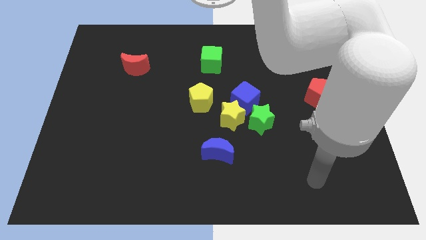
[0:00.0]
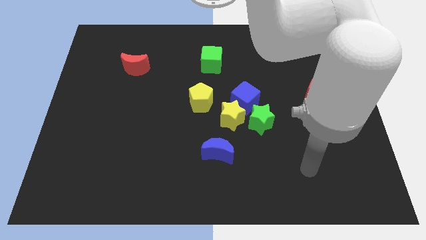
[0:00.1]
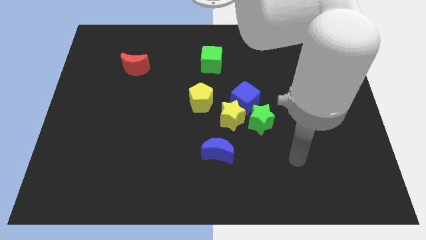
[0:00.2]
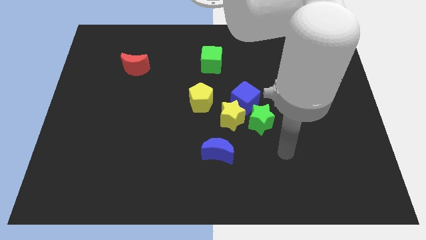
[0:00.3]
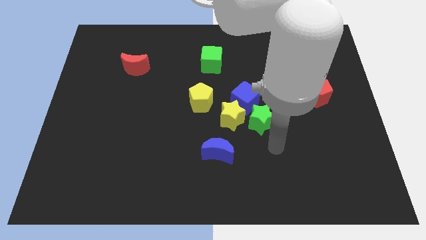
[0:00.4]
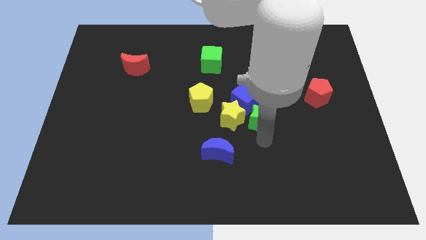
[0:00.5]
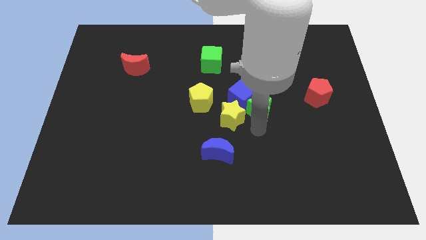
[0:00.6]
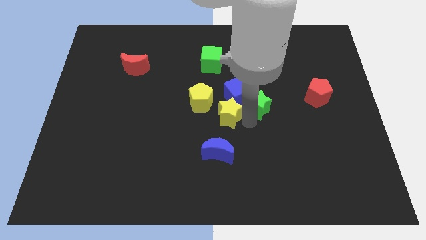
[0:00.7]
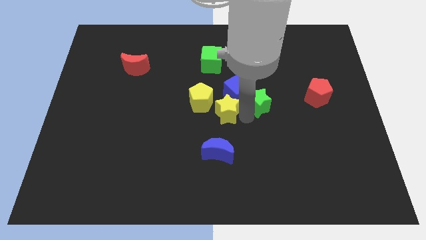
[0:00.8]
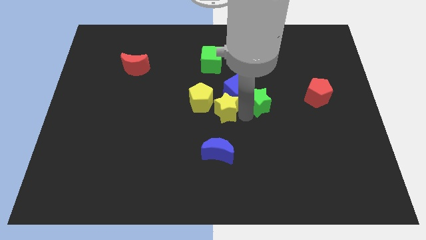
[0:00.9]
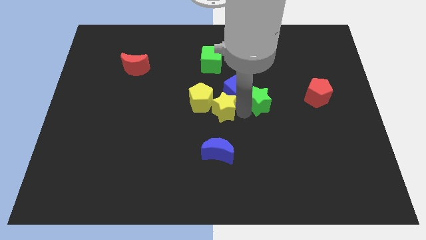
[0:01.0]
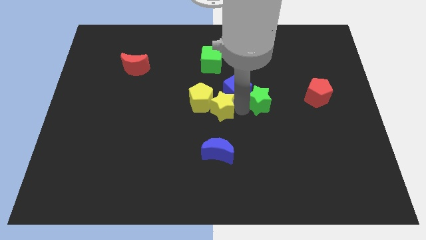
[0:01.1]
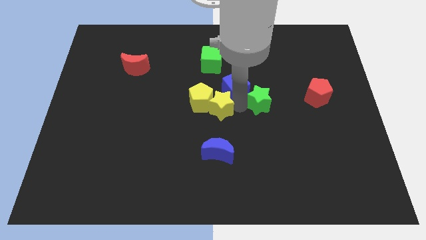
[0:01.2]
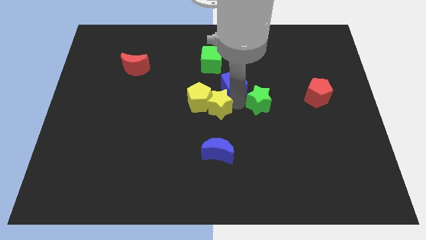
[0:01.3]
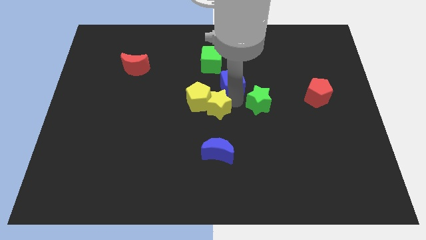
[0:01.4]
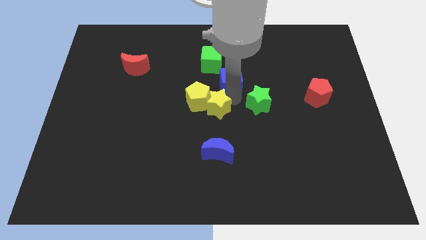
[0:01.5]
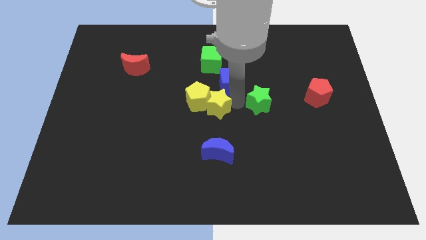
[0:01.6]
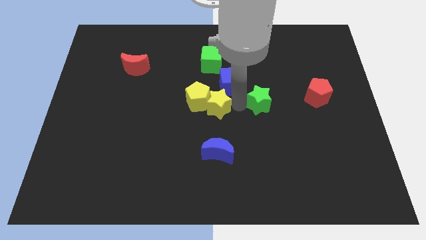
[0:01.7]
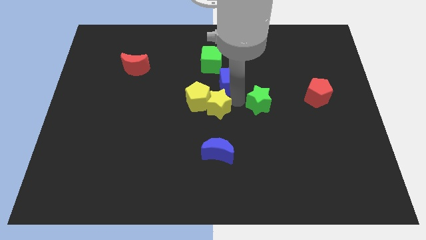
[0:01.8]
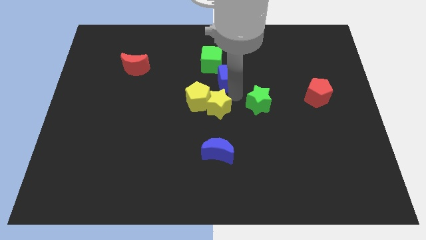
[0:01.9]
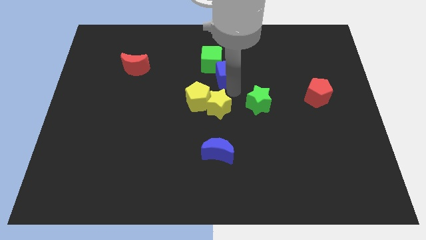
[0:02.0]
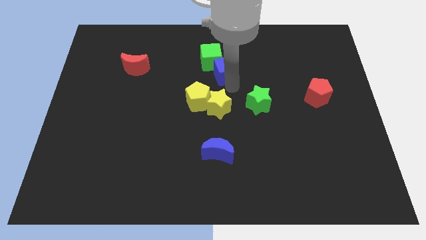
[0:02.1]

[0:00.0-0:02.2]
separate the blue cube from the yellow star and green star

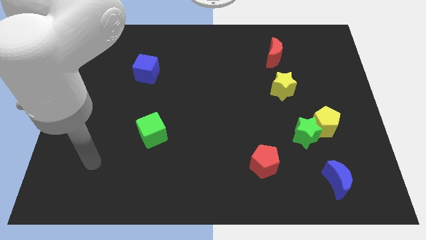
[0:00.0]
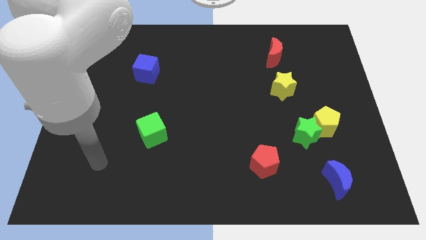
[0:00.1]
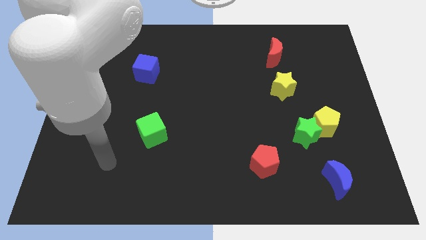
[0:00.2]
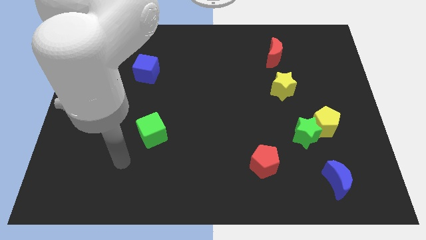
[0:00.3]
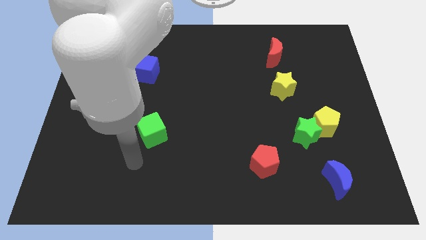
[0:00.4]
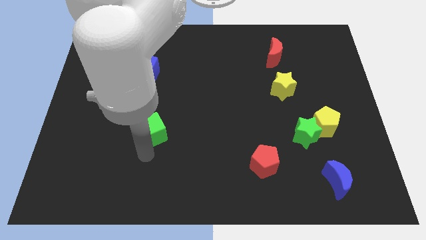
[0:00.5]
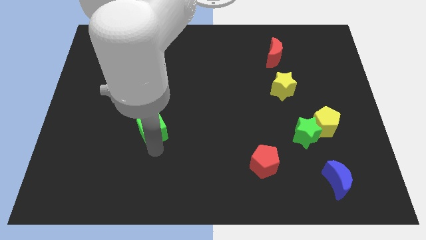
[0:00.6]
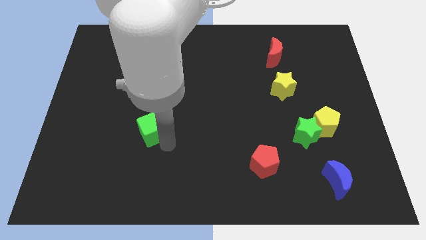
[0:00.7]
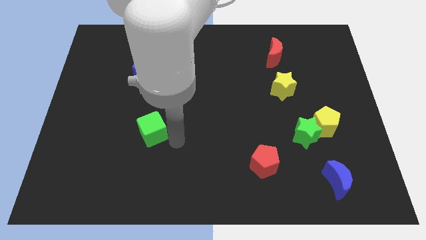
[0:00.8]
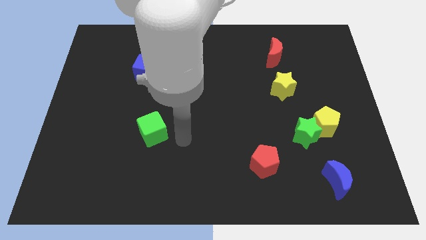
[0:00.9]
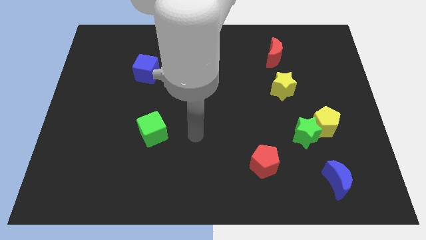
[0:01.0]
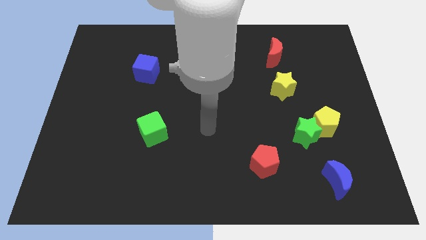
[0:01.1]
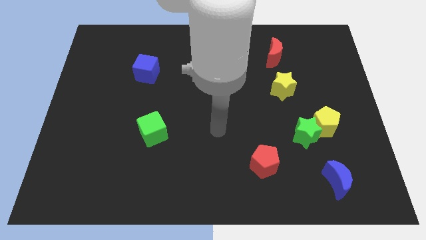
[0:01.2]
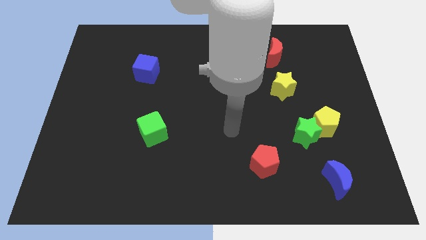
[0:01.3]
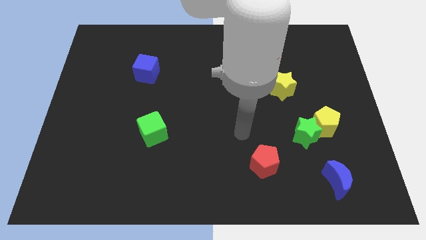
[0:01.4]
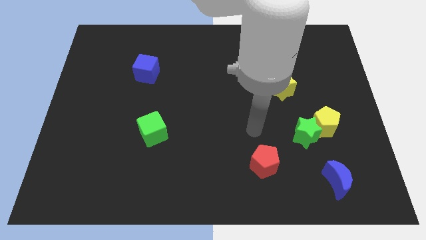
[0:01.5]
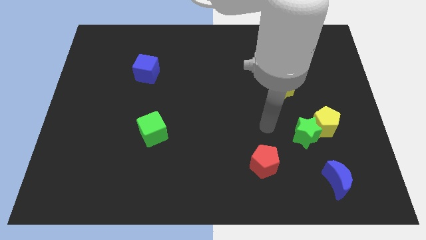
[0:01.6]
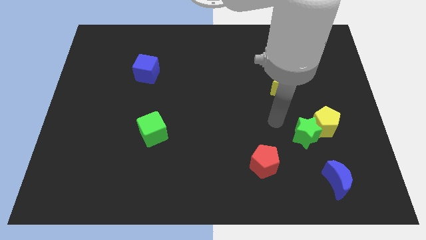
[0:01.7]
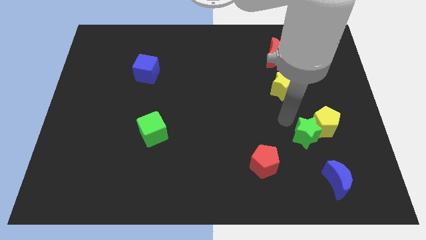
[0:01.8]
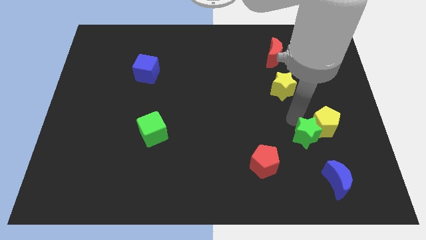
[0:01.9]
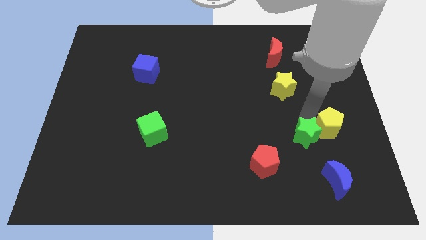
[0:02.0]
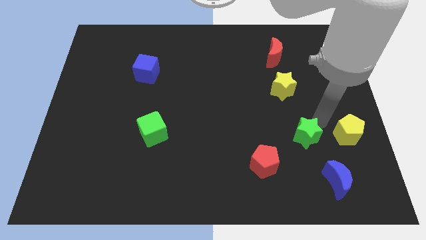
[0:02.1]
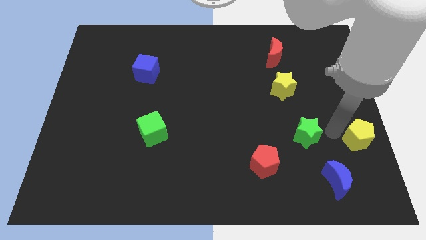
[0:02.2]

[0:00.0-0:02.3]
move the green star away from the yellow pentagon

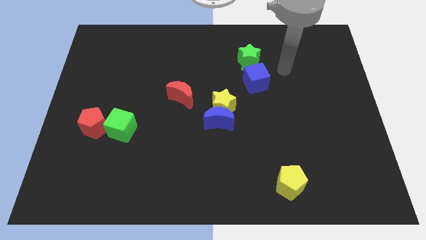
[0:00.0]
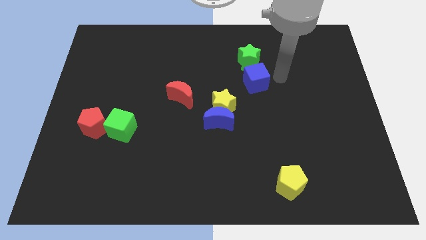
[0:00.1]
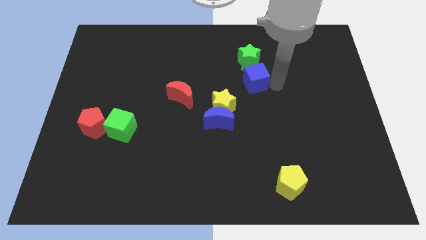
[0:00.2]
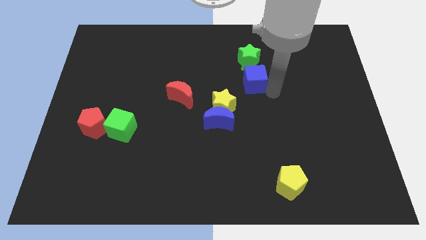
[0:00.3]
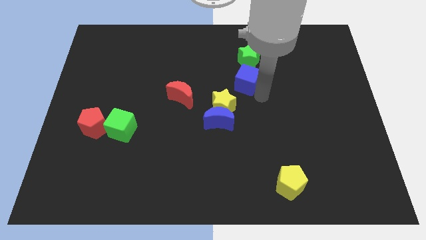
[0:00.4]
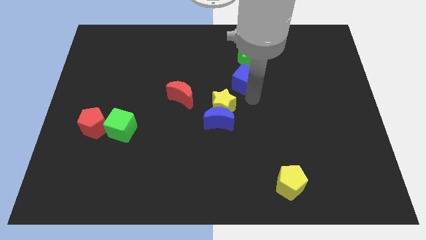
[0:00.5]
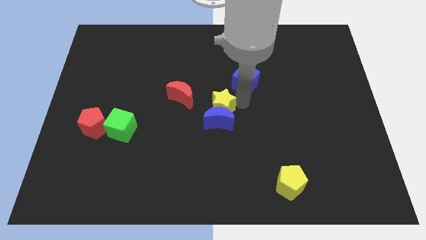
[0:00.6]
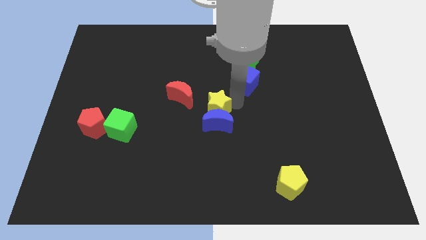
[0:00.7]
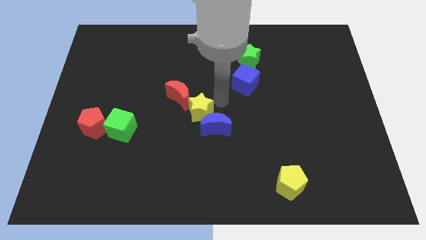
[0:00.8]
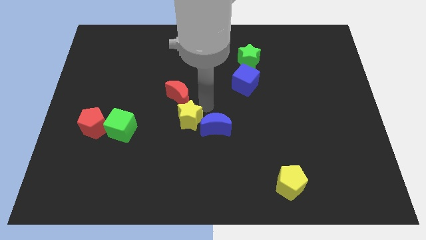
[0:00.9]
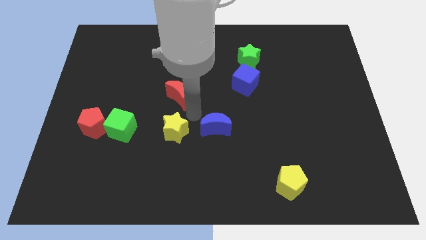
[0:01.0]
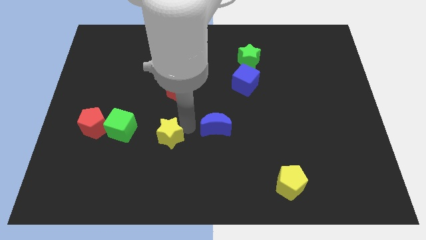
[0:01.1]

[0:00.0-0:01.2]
move the blue moon away from the yellow star

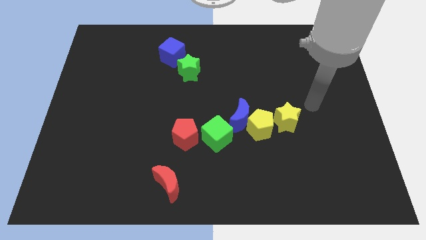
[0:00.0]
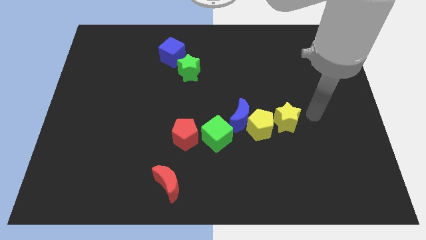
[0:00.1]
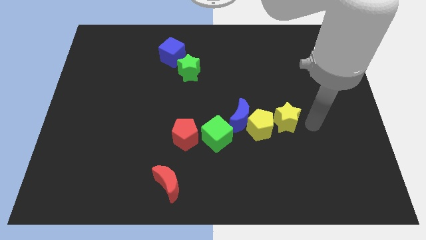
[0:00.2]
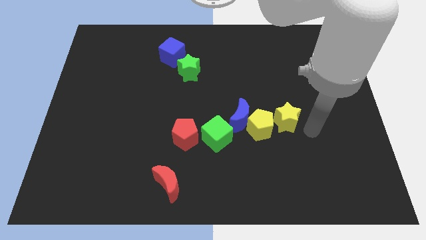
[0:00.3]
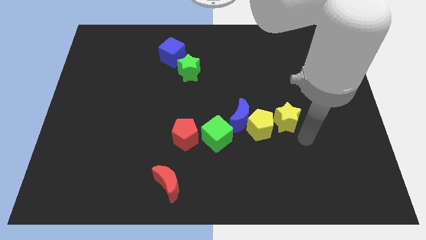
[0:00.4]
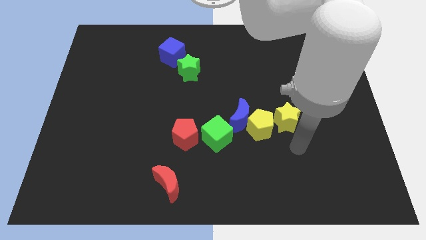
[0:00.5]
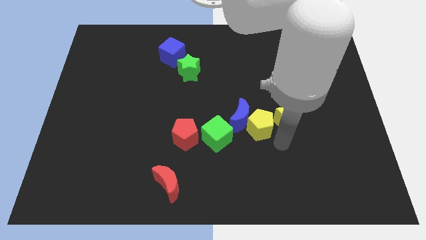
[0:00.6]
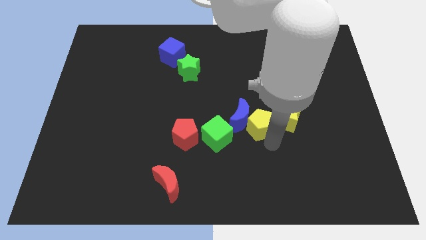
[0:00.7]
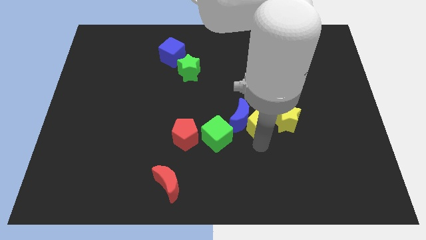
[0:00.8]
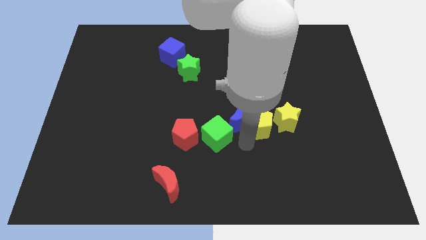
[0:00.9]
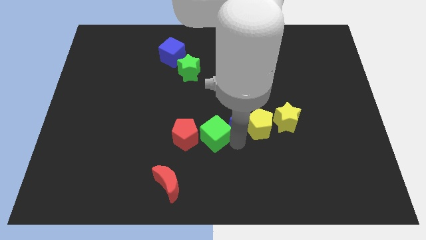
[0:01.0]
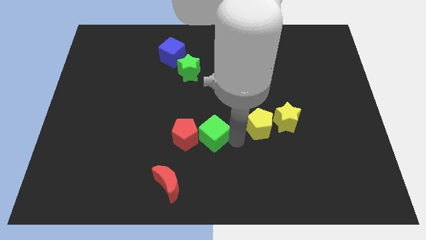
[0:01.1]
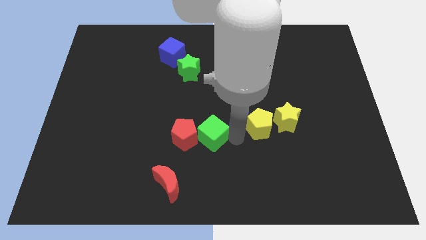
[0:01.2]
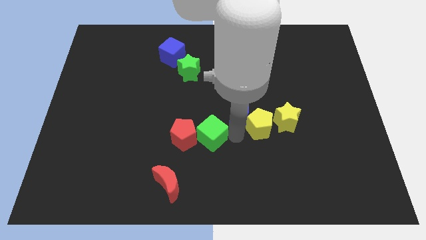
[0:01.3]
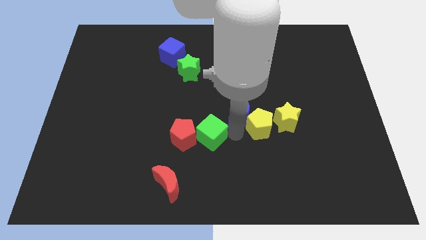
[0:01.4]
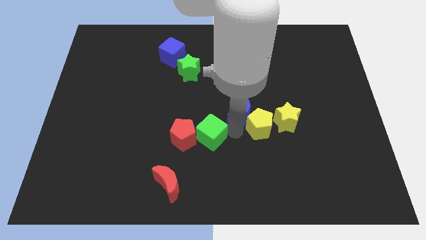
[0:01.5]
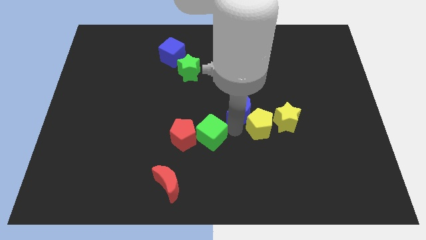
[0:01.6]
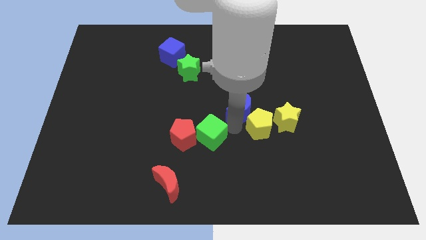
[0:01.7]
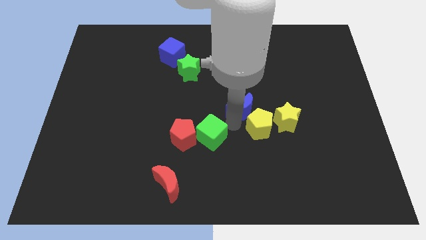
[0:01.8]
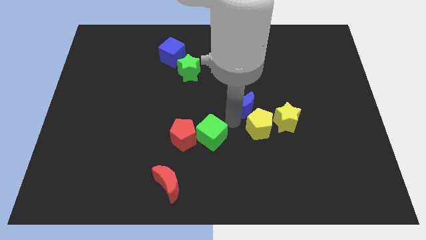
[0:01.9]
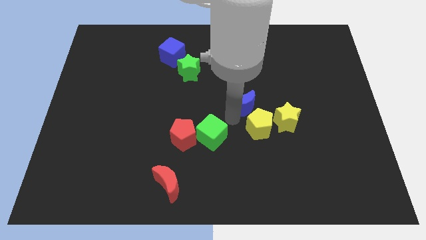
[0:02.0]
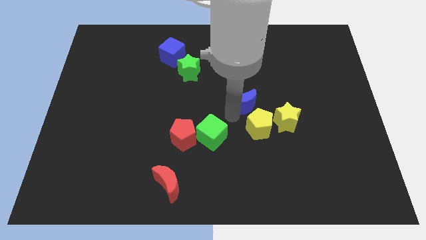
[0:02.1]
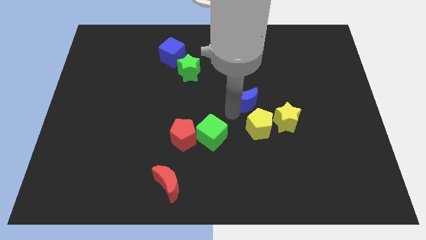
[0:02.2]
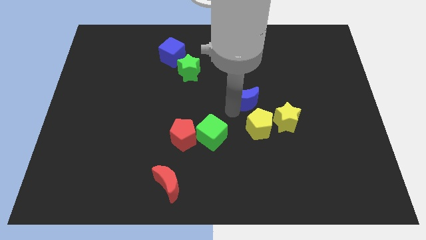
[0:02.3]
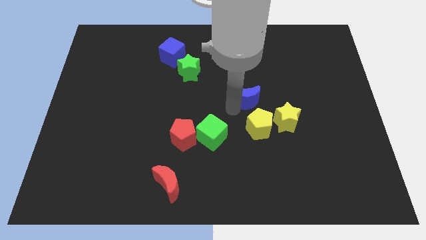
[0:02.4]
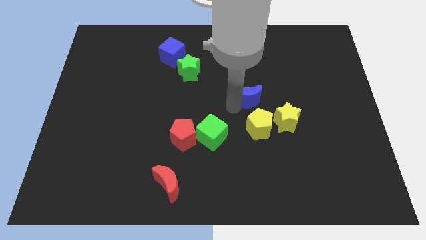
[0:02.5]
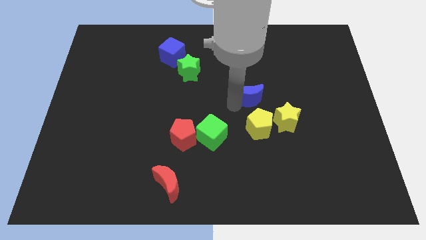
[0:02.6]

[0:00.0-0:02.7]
pull the blue moon apart from the yellow pentagon and green cube

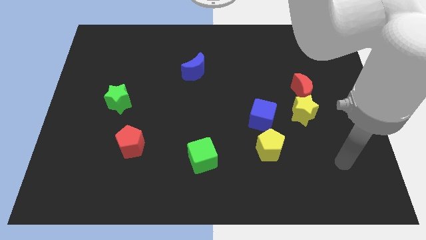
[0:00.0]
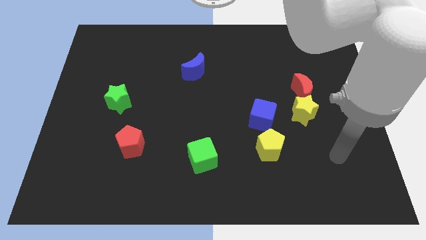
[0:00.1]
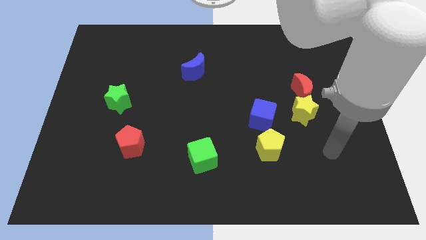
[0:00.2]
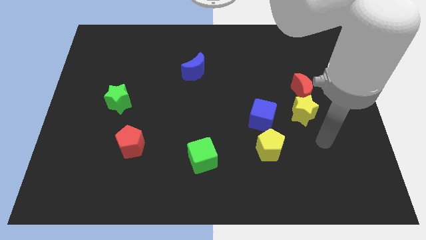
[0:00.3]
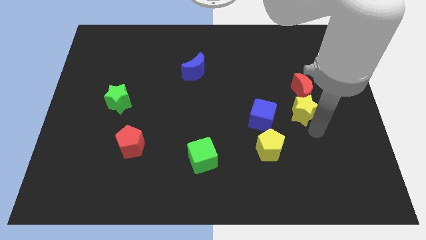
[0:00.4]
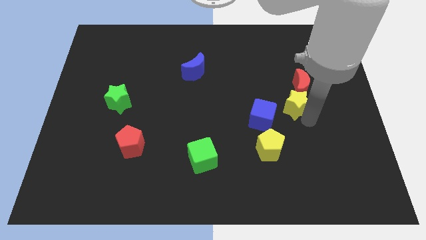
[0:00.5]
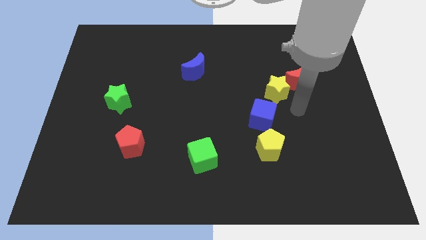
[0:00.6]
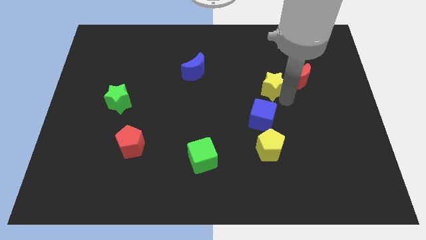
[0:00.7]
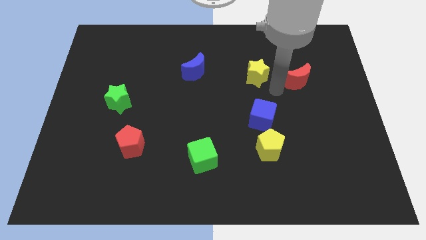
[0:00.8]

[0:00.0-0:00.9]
separate the red moon from the yellow star
